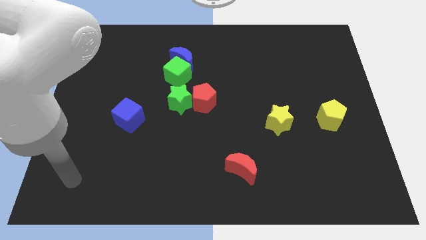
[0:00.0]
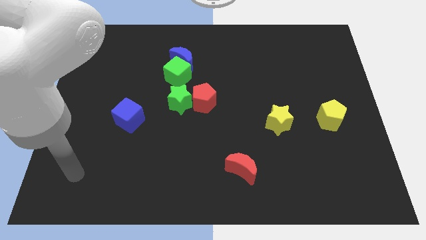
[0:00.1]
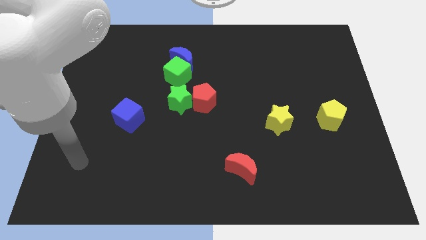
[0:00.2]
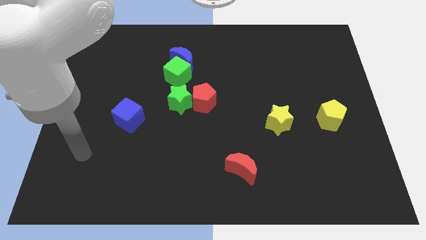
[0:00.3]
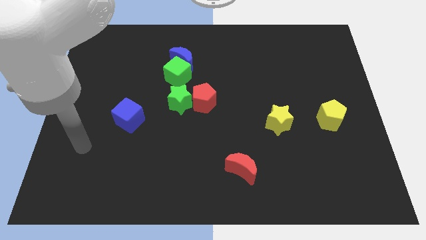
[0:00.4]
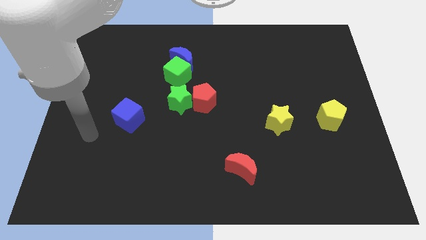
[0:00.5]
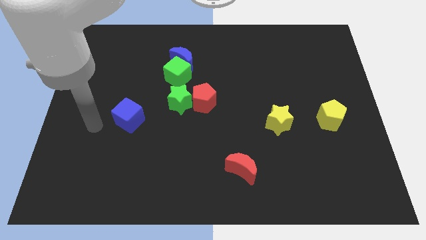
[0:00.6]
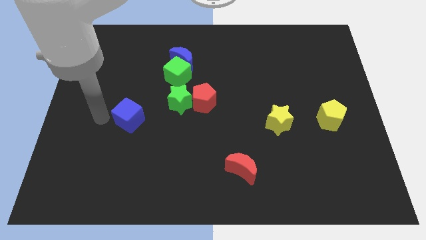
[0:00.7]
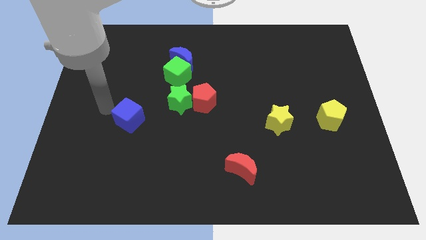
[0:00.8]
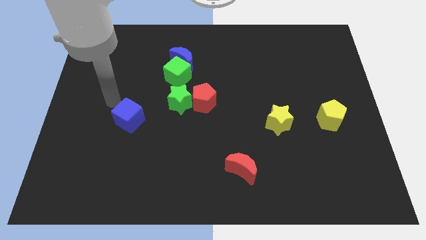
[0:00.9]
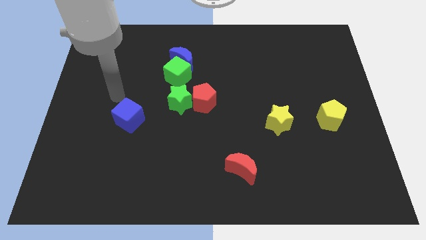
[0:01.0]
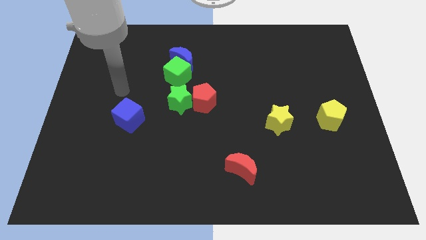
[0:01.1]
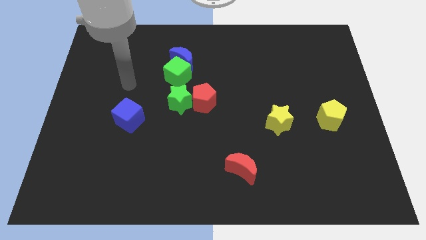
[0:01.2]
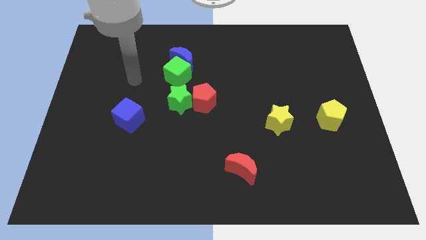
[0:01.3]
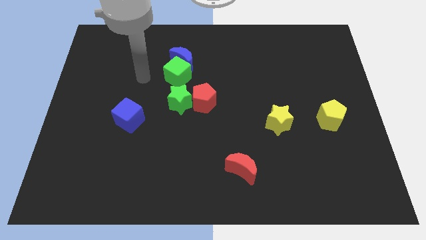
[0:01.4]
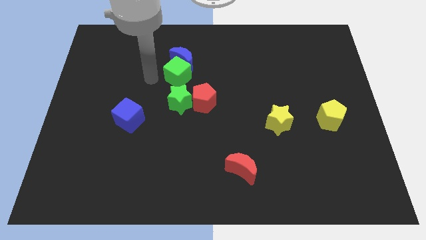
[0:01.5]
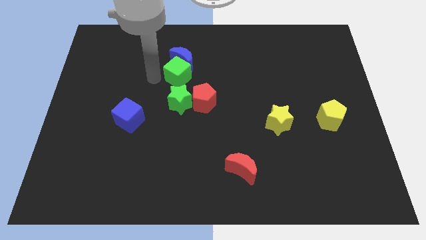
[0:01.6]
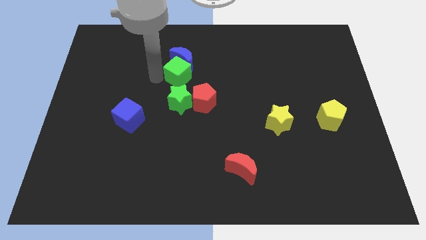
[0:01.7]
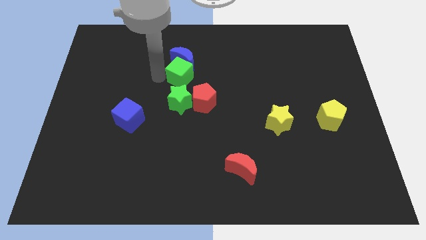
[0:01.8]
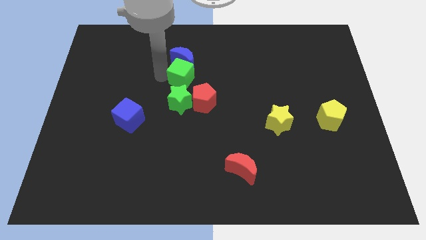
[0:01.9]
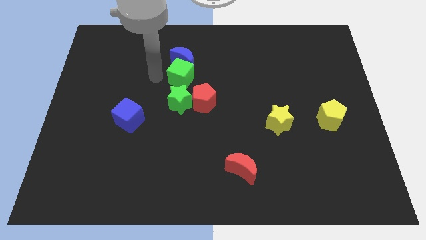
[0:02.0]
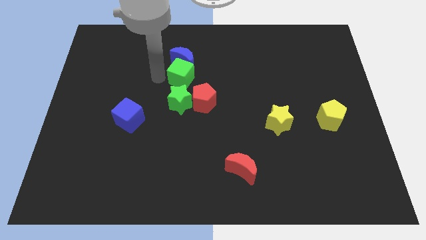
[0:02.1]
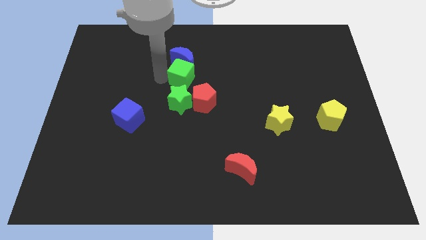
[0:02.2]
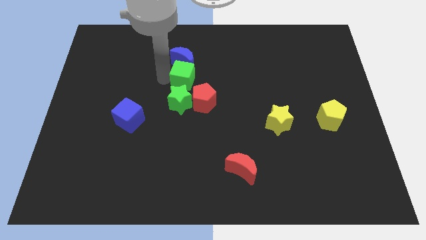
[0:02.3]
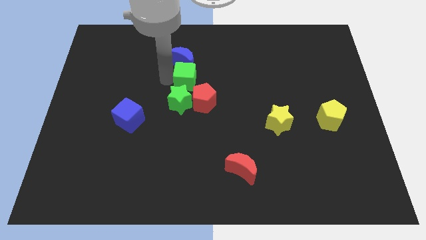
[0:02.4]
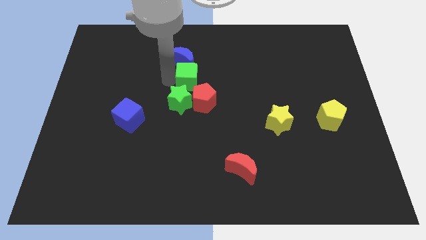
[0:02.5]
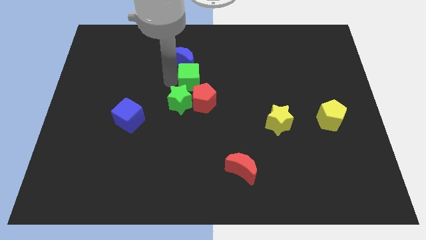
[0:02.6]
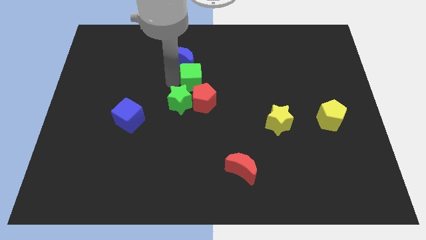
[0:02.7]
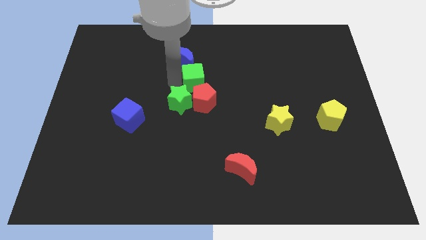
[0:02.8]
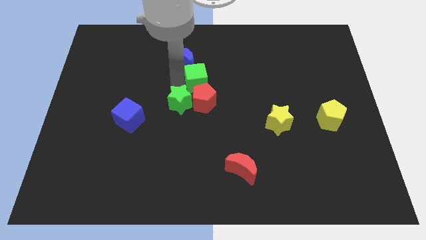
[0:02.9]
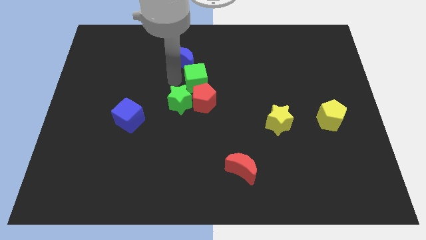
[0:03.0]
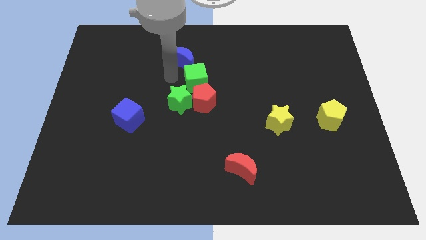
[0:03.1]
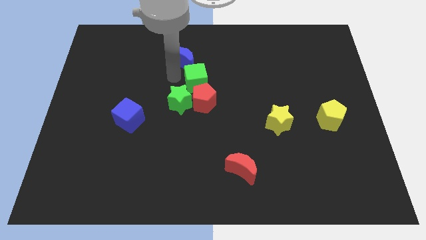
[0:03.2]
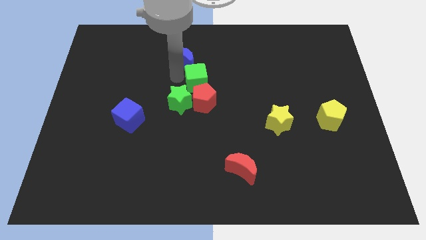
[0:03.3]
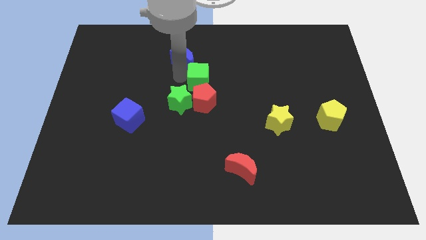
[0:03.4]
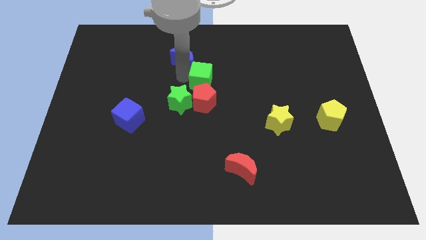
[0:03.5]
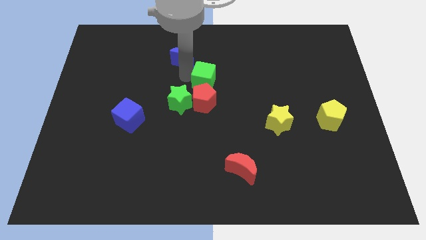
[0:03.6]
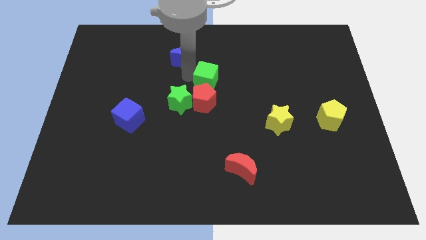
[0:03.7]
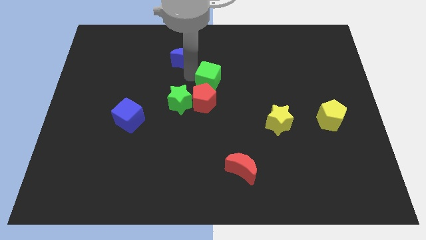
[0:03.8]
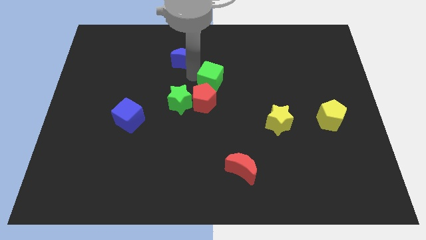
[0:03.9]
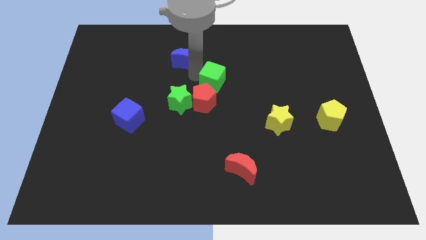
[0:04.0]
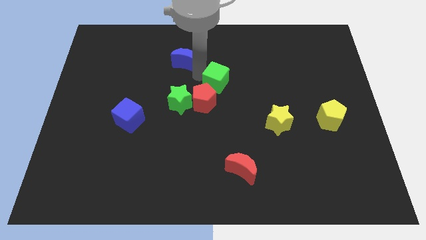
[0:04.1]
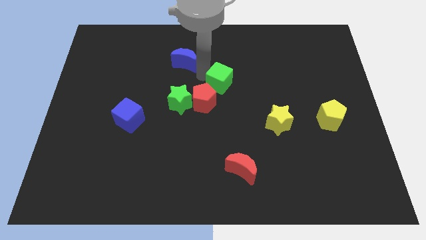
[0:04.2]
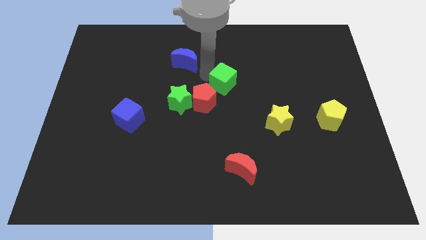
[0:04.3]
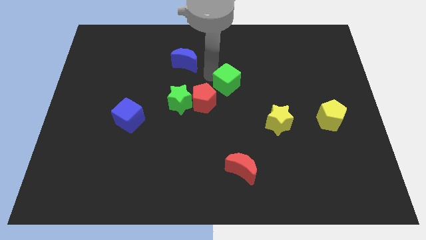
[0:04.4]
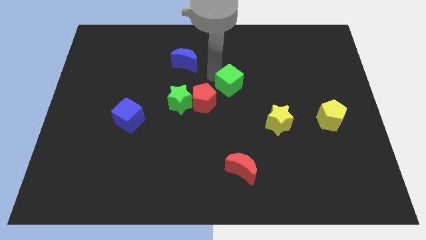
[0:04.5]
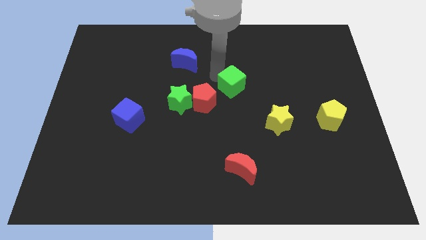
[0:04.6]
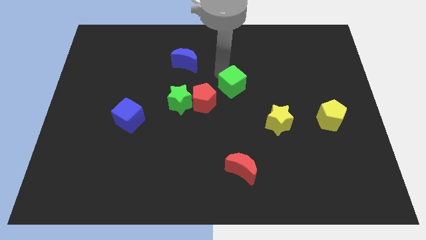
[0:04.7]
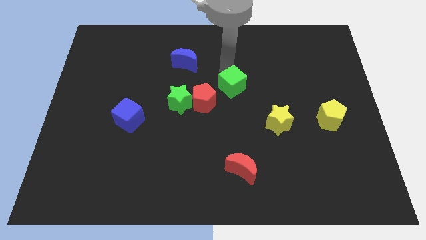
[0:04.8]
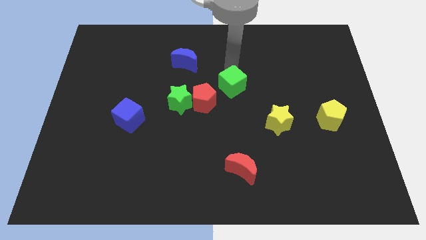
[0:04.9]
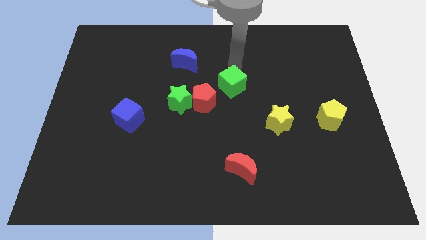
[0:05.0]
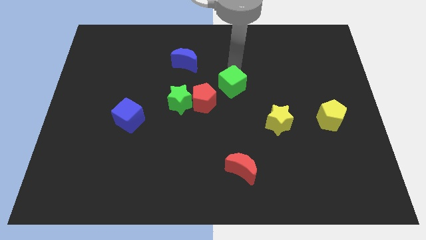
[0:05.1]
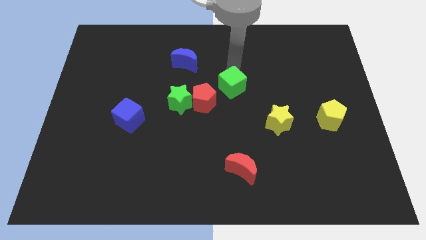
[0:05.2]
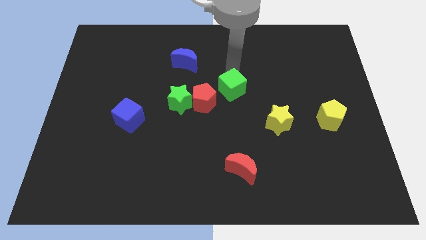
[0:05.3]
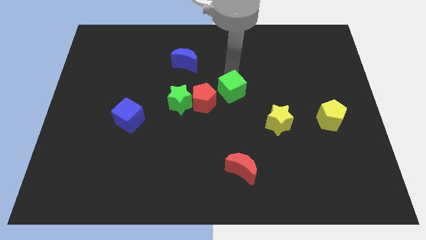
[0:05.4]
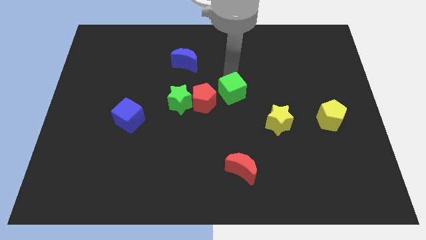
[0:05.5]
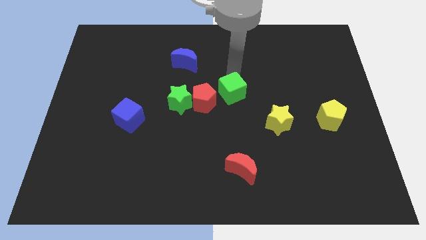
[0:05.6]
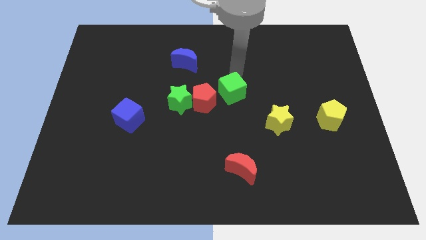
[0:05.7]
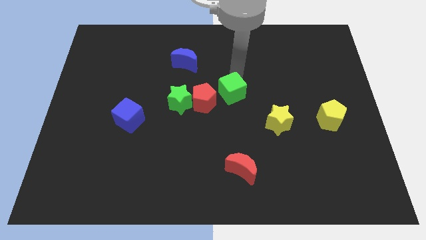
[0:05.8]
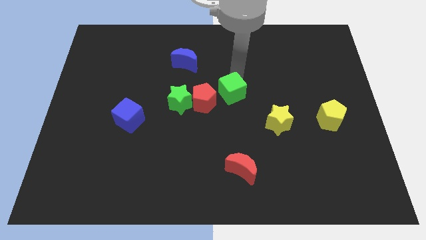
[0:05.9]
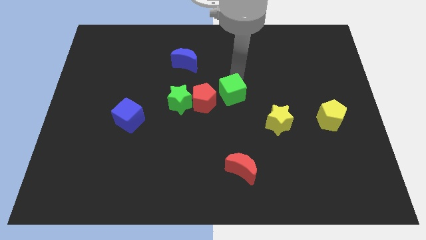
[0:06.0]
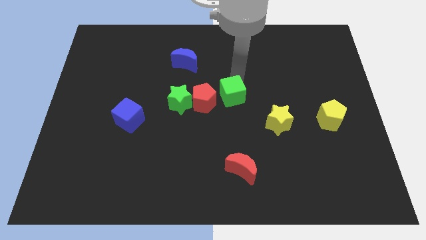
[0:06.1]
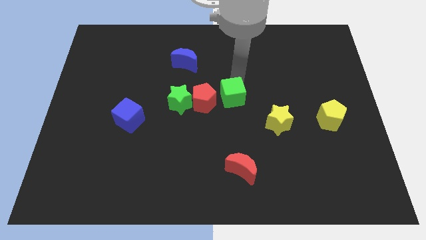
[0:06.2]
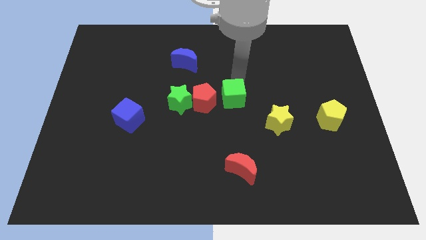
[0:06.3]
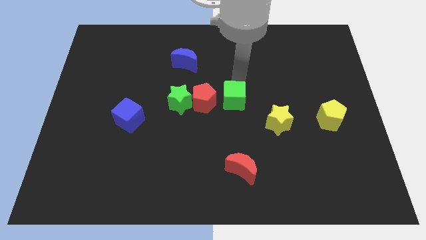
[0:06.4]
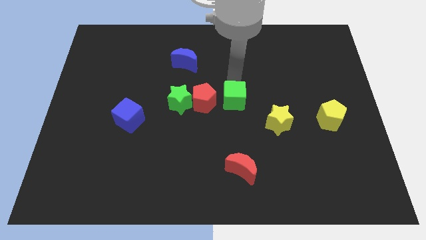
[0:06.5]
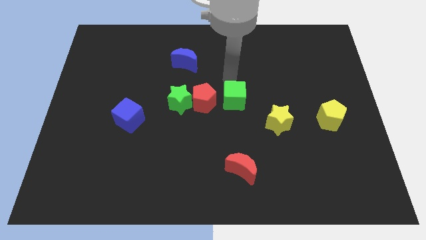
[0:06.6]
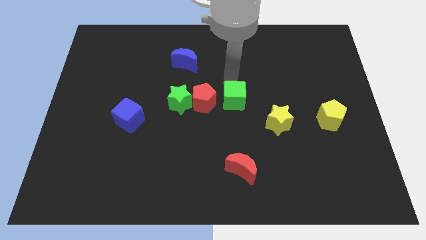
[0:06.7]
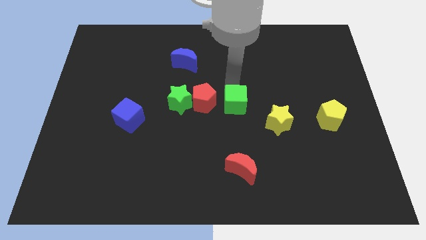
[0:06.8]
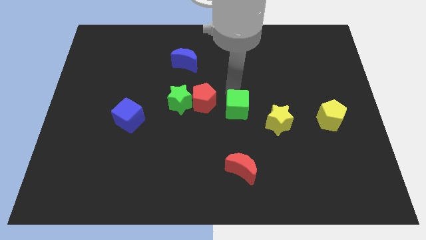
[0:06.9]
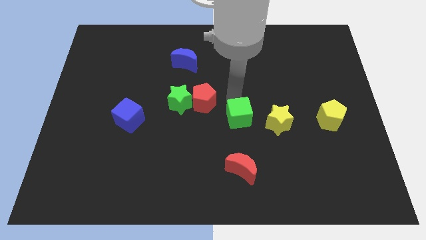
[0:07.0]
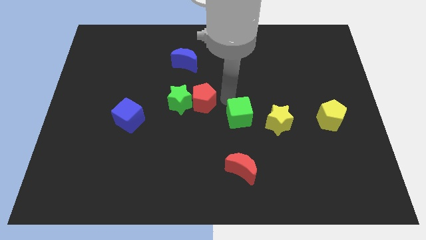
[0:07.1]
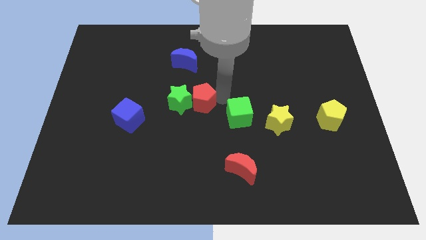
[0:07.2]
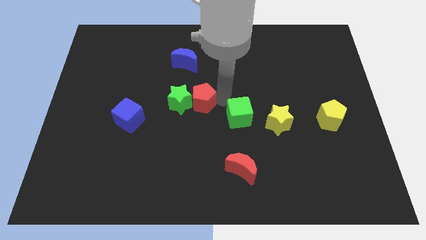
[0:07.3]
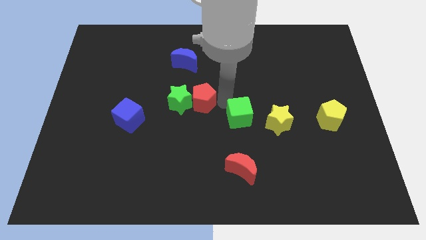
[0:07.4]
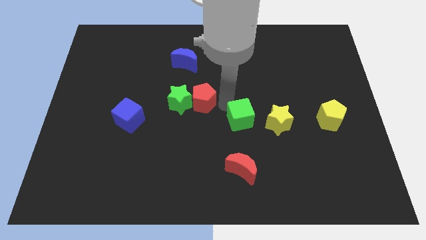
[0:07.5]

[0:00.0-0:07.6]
push the green cube downwards and to the right diagonally
